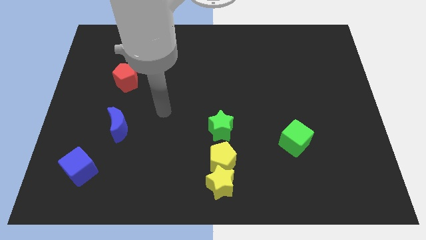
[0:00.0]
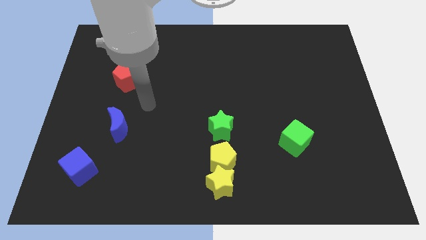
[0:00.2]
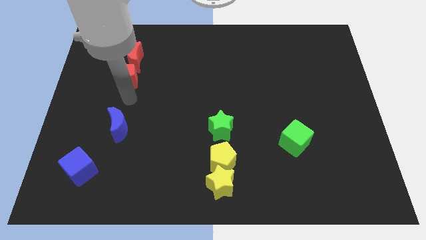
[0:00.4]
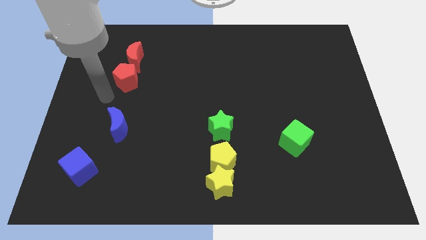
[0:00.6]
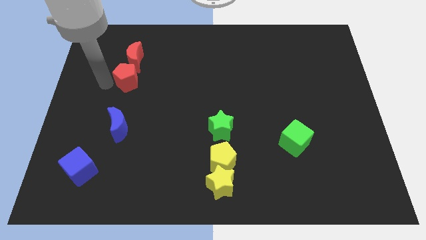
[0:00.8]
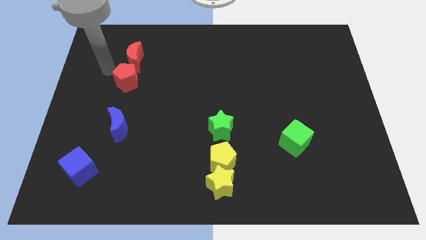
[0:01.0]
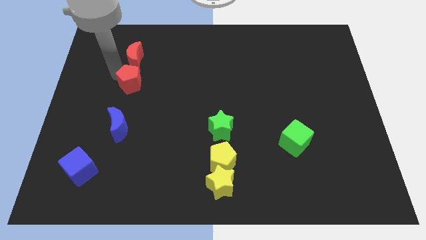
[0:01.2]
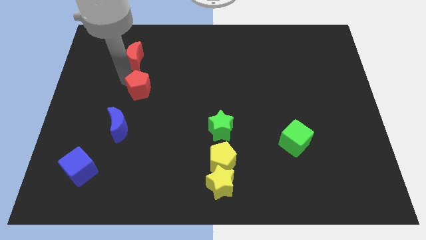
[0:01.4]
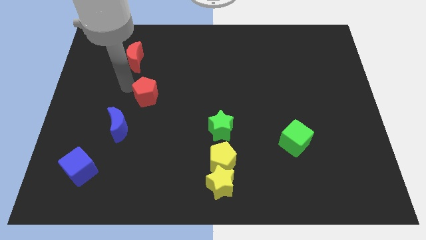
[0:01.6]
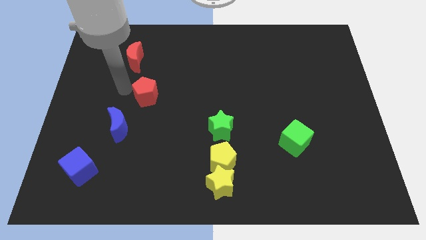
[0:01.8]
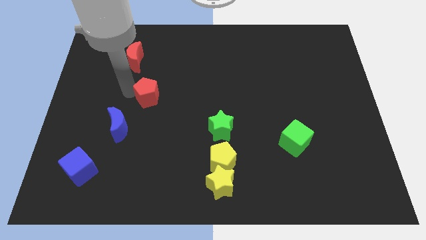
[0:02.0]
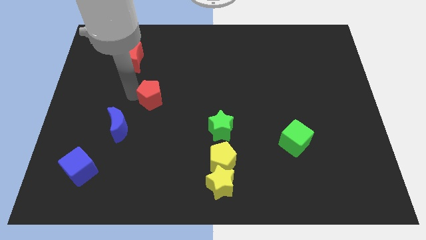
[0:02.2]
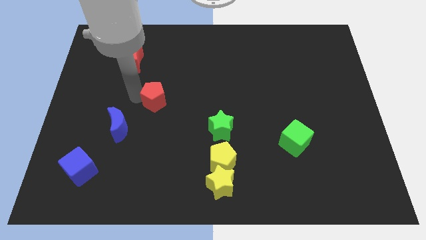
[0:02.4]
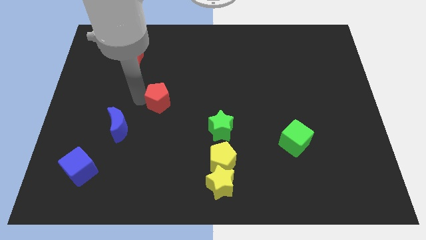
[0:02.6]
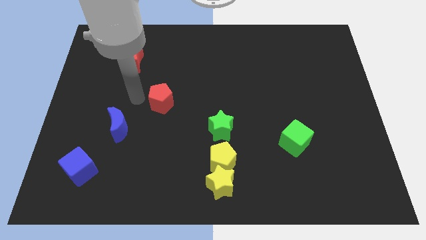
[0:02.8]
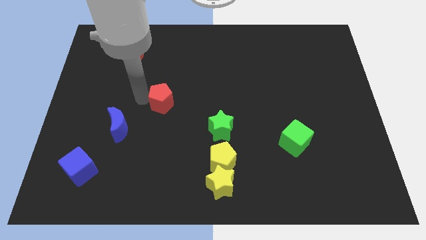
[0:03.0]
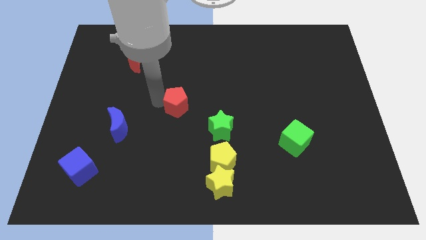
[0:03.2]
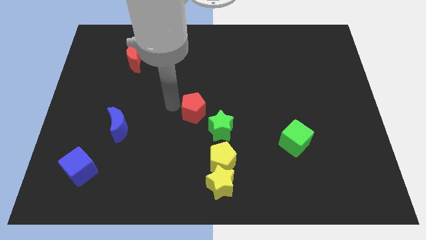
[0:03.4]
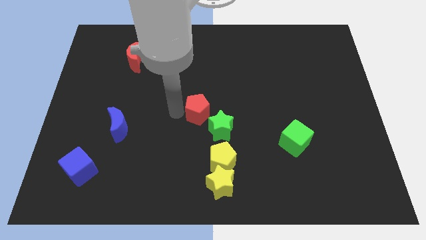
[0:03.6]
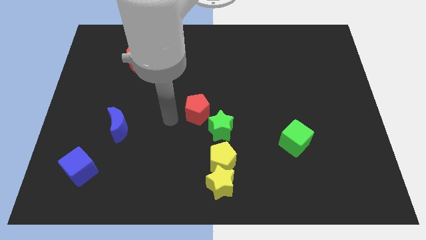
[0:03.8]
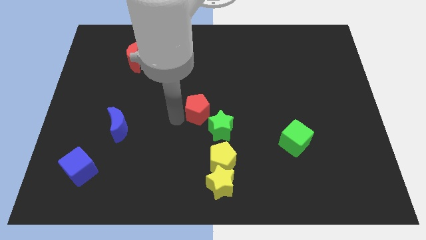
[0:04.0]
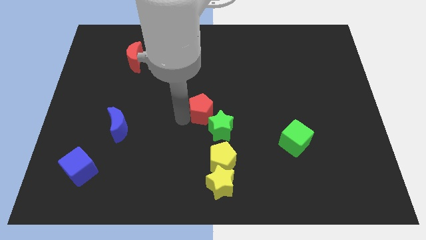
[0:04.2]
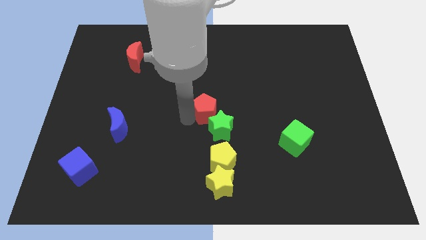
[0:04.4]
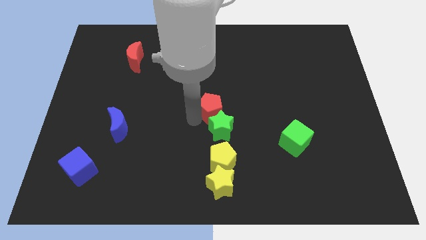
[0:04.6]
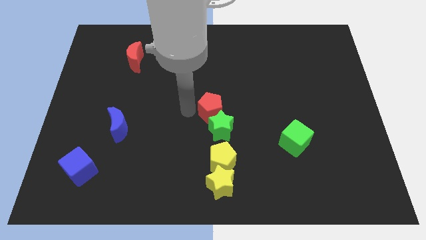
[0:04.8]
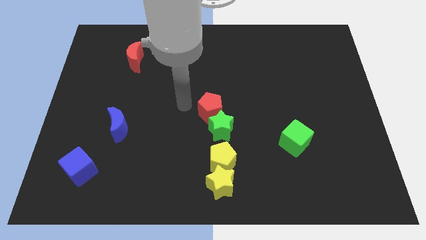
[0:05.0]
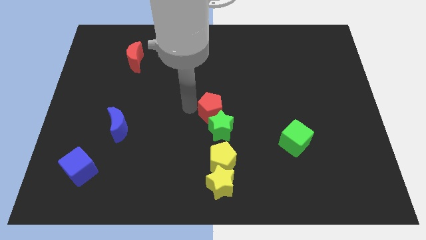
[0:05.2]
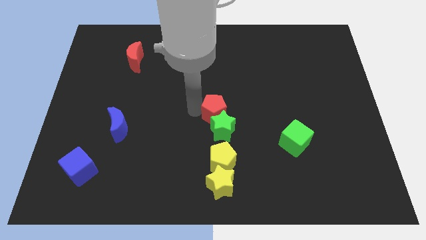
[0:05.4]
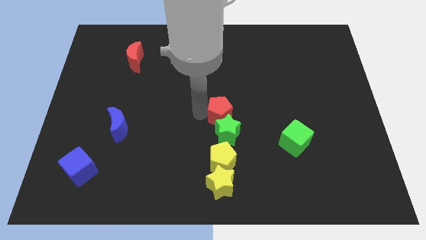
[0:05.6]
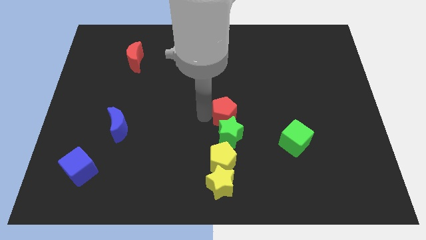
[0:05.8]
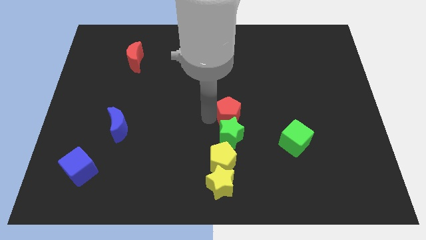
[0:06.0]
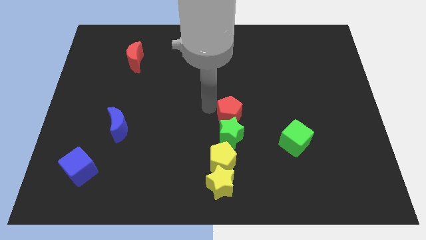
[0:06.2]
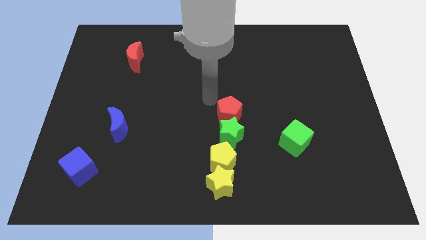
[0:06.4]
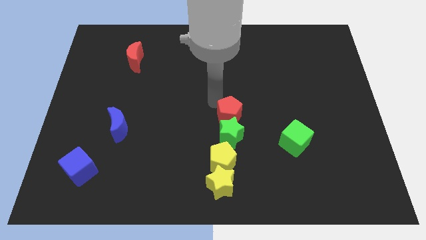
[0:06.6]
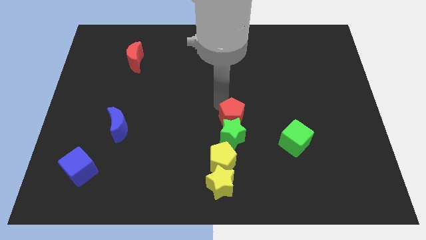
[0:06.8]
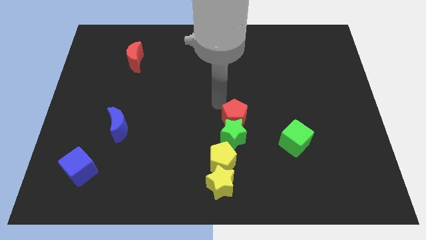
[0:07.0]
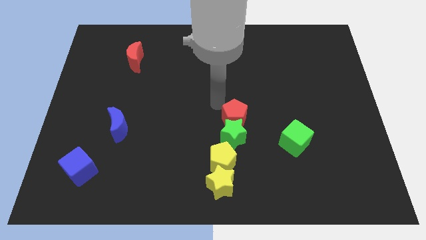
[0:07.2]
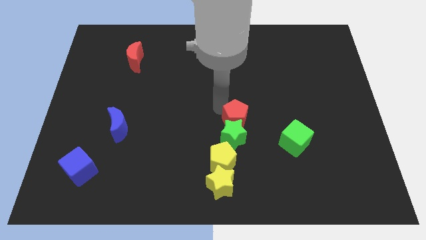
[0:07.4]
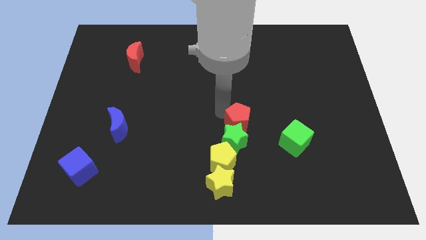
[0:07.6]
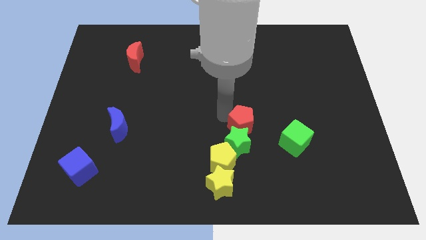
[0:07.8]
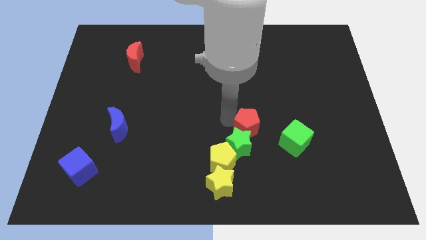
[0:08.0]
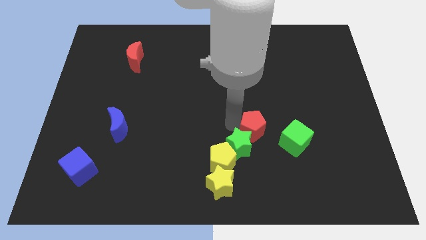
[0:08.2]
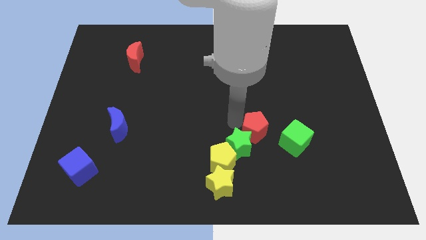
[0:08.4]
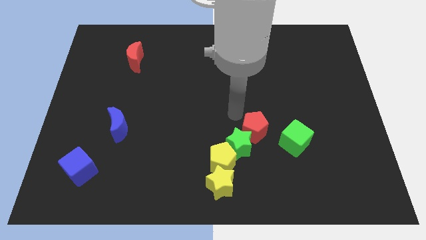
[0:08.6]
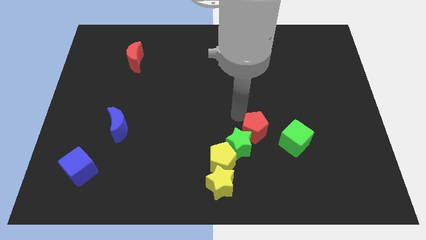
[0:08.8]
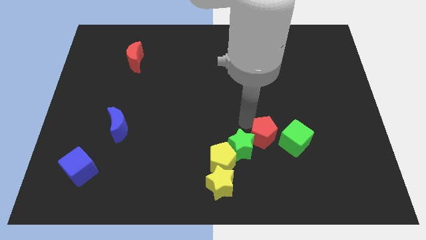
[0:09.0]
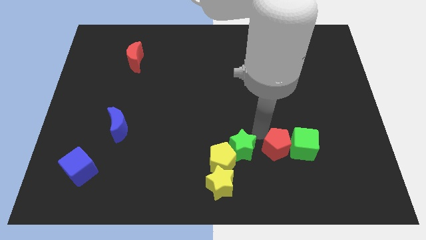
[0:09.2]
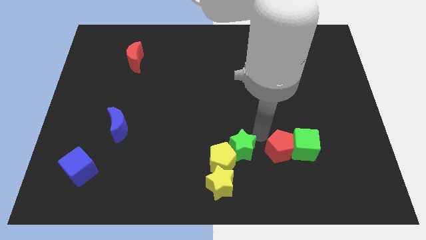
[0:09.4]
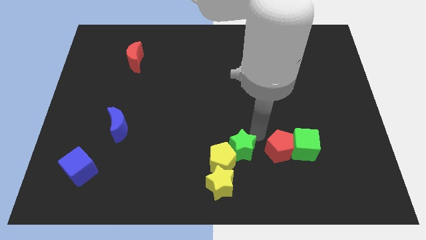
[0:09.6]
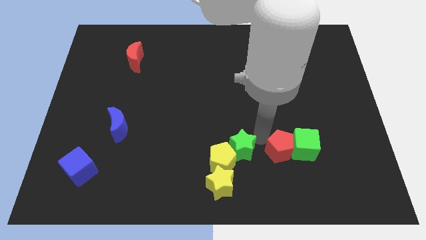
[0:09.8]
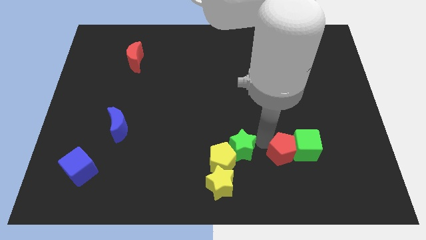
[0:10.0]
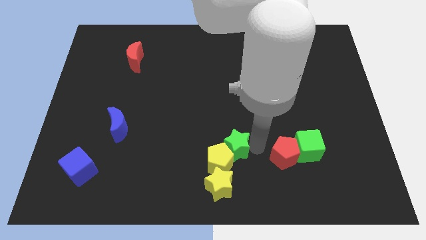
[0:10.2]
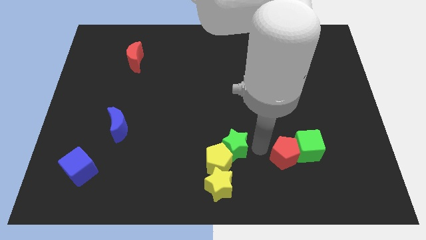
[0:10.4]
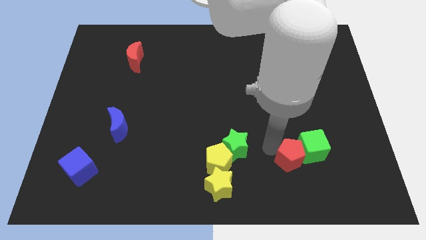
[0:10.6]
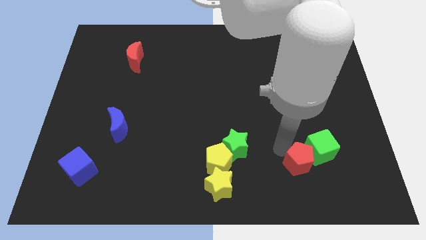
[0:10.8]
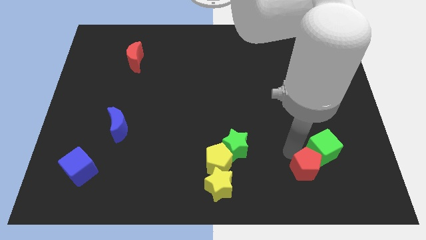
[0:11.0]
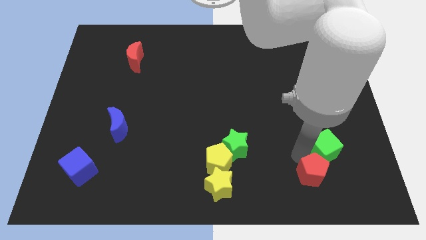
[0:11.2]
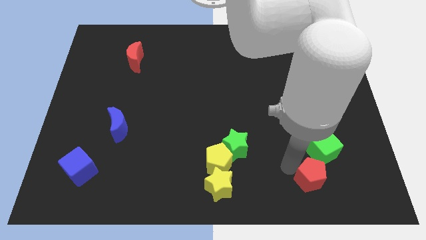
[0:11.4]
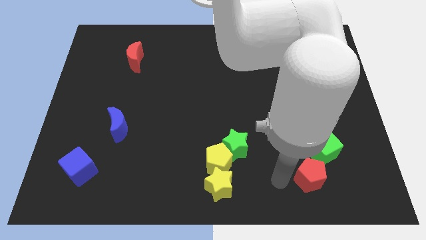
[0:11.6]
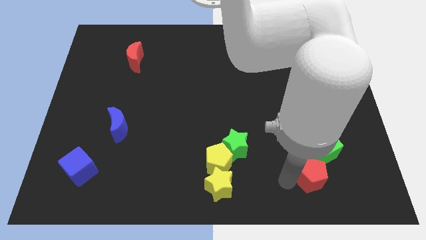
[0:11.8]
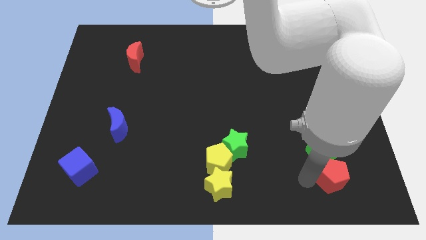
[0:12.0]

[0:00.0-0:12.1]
slide the red pentagon to the bottom right of the green cube

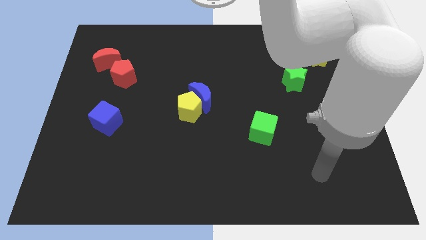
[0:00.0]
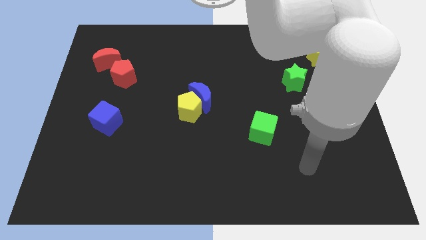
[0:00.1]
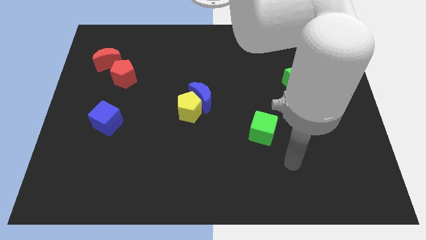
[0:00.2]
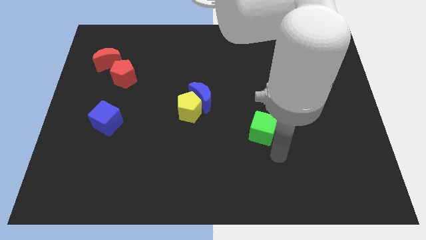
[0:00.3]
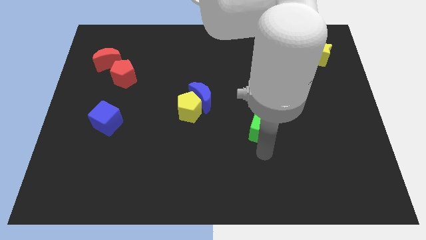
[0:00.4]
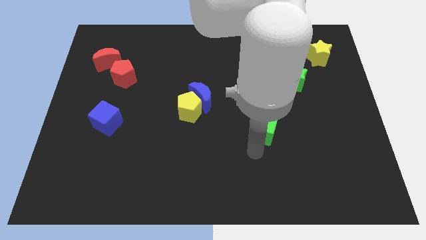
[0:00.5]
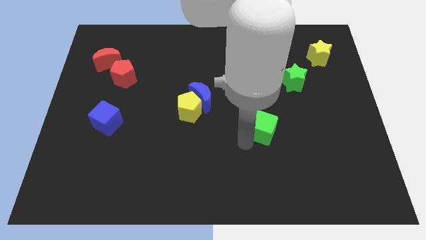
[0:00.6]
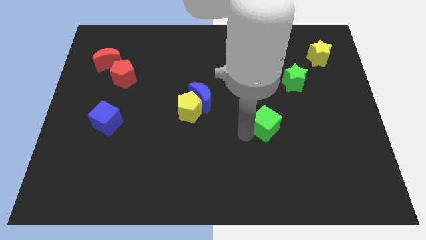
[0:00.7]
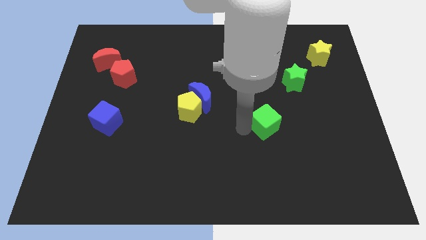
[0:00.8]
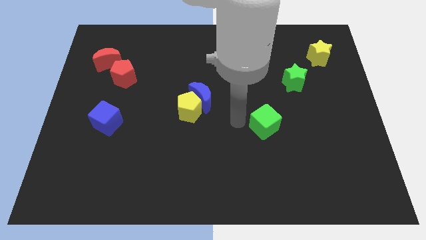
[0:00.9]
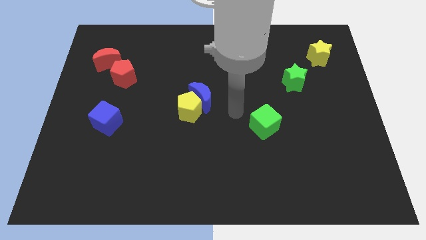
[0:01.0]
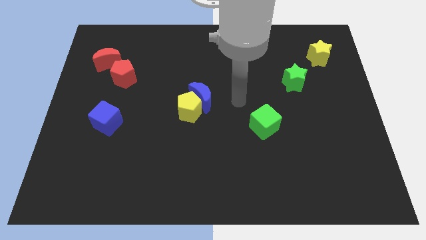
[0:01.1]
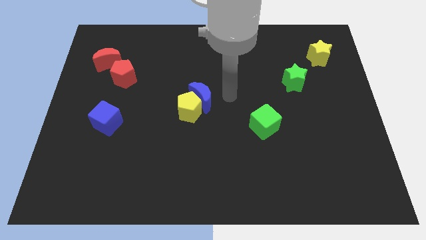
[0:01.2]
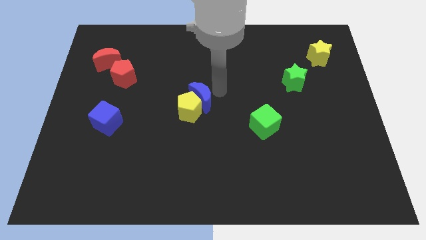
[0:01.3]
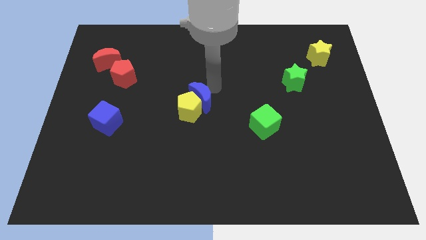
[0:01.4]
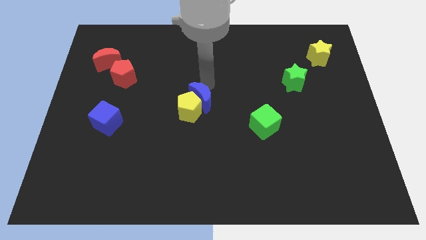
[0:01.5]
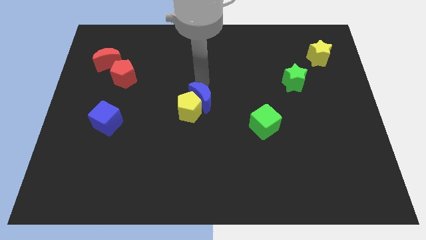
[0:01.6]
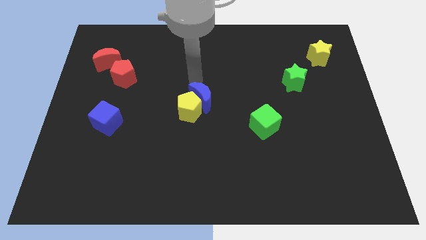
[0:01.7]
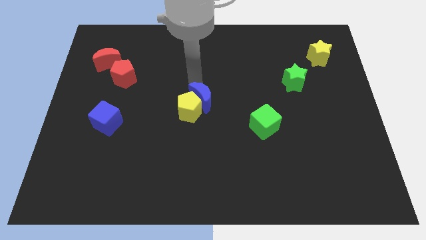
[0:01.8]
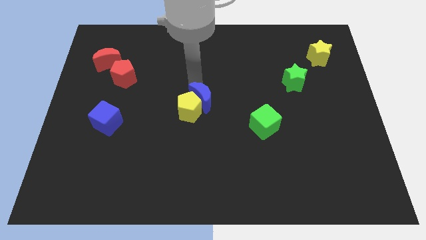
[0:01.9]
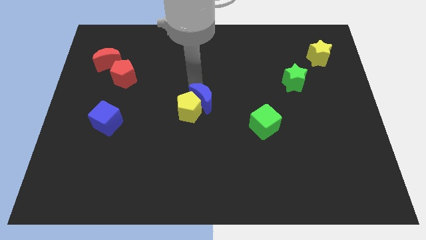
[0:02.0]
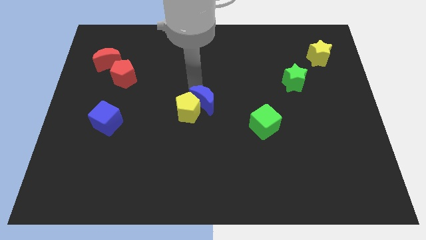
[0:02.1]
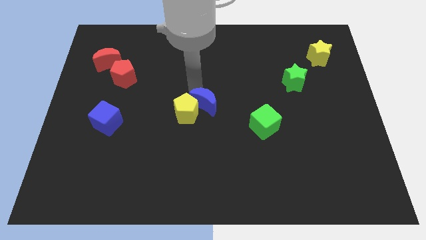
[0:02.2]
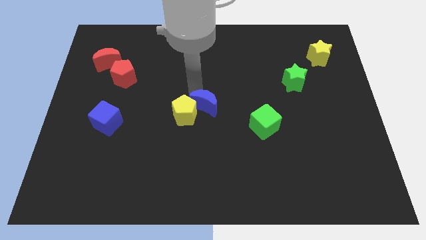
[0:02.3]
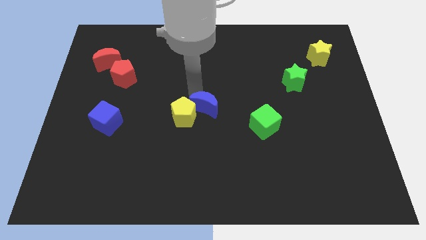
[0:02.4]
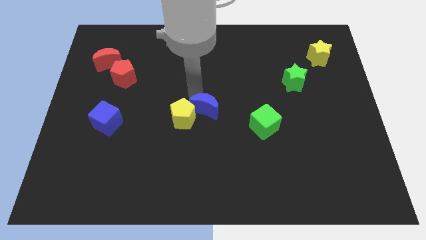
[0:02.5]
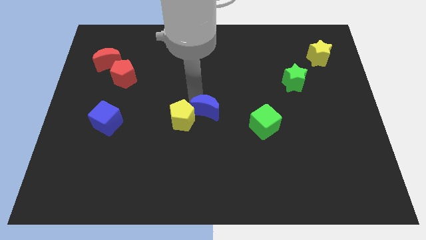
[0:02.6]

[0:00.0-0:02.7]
move the blue moon left of the green cube
